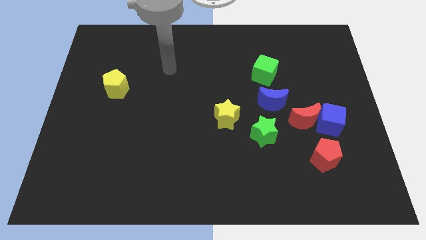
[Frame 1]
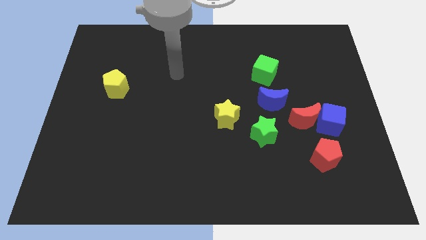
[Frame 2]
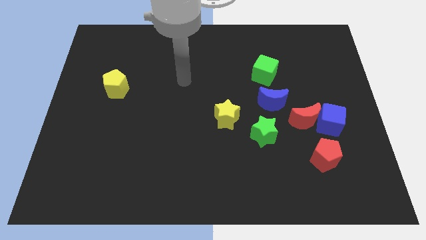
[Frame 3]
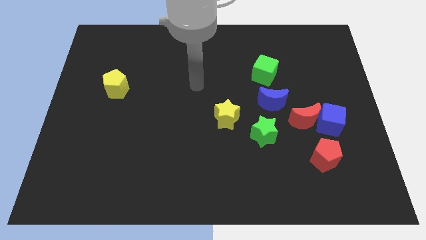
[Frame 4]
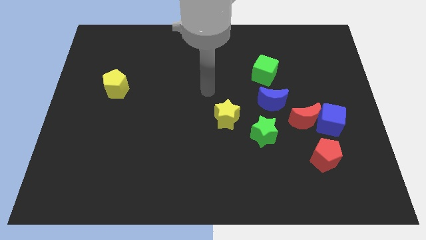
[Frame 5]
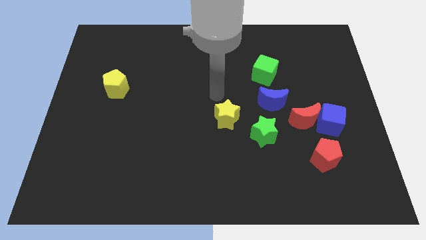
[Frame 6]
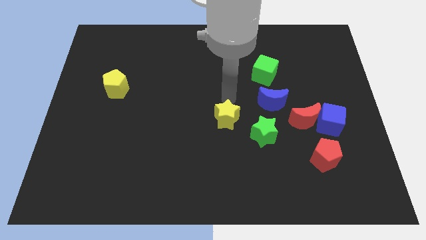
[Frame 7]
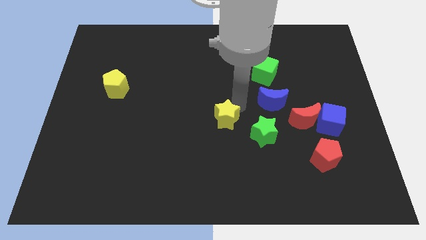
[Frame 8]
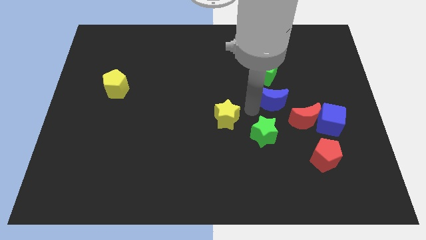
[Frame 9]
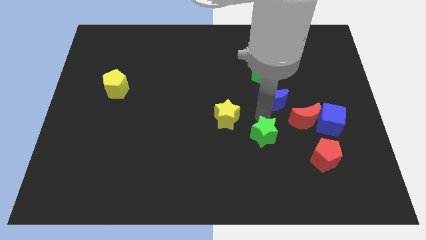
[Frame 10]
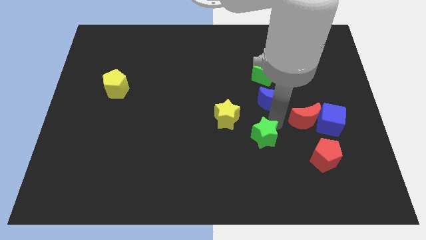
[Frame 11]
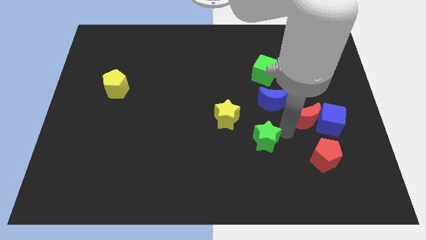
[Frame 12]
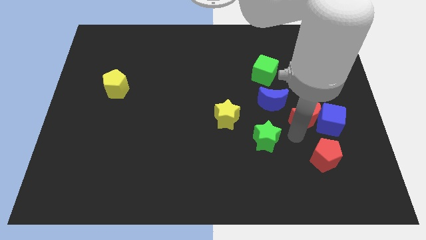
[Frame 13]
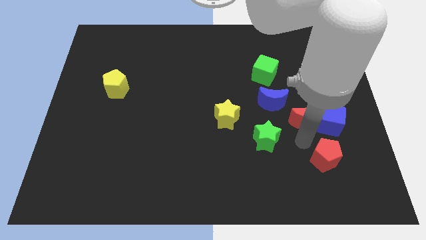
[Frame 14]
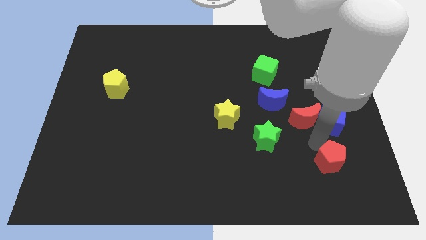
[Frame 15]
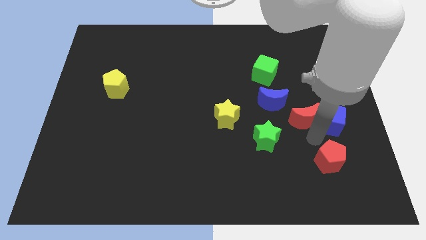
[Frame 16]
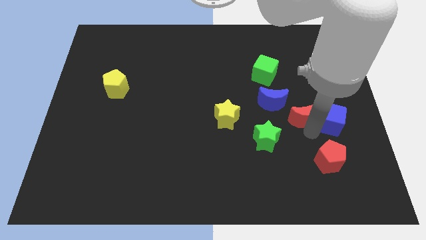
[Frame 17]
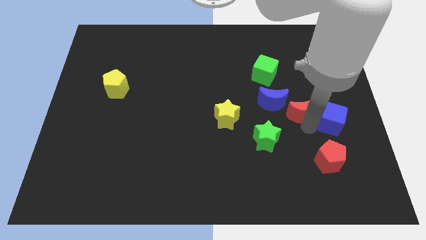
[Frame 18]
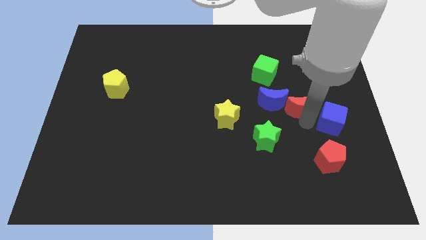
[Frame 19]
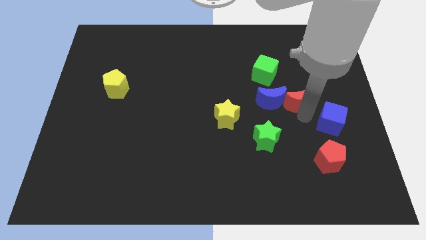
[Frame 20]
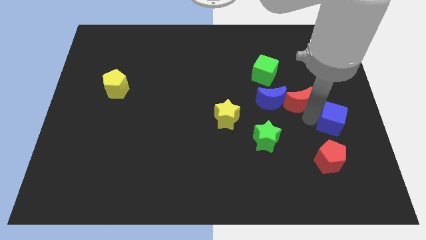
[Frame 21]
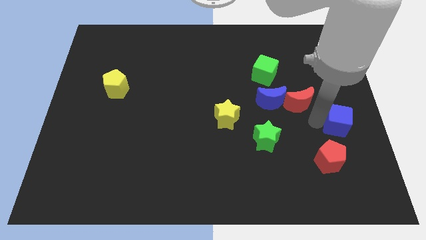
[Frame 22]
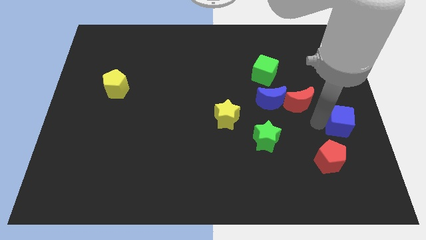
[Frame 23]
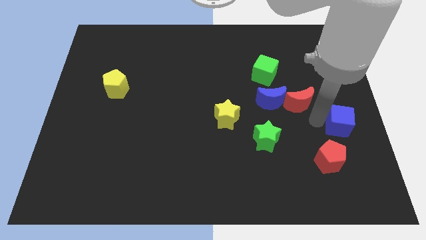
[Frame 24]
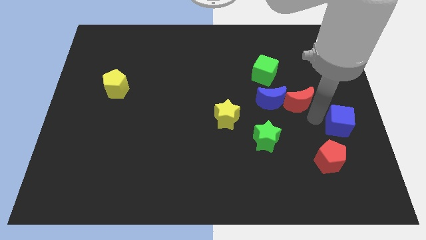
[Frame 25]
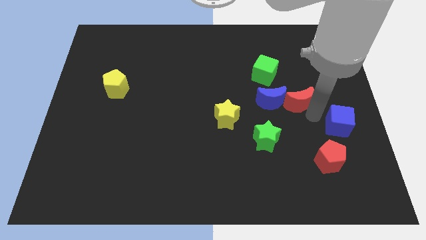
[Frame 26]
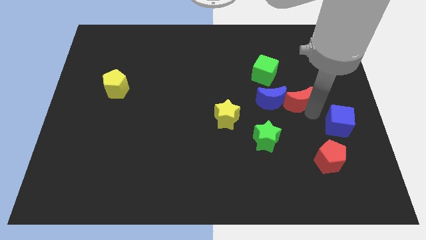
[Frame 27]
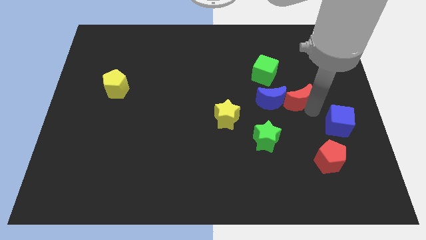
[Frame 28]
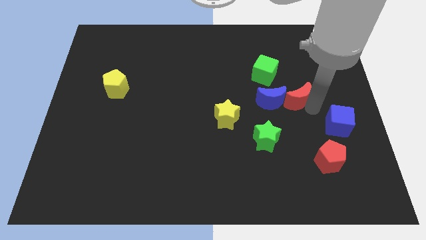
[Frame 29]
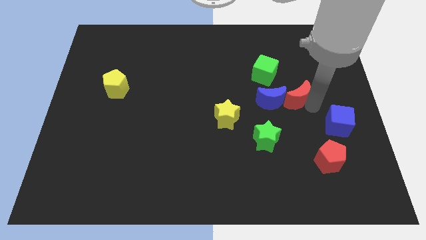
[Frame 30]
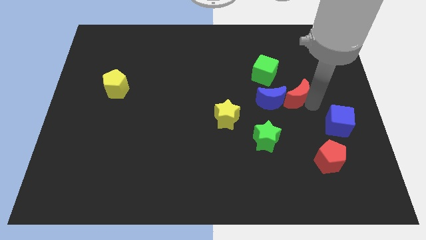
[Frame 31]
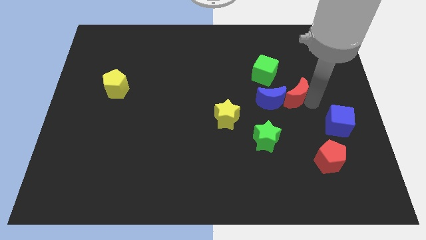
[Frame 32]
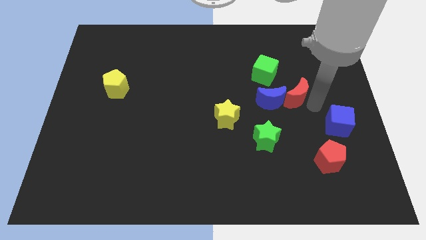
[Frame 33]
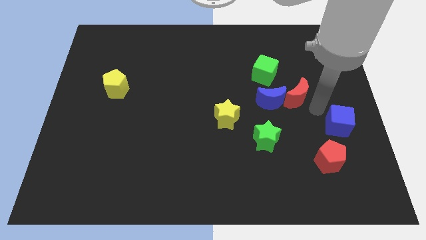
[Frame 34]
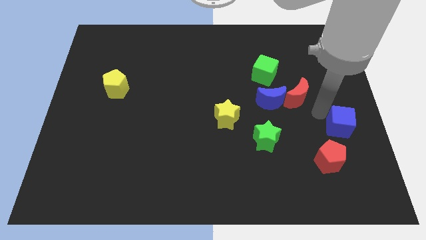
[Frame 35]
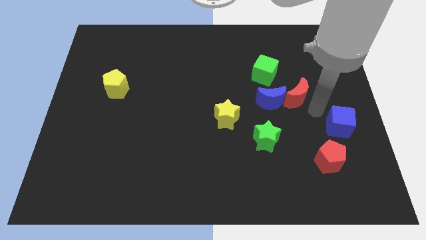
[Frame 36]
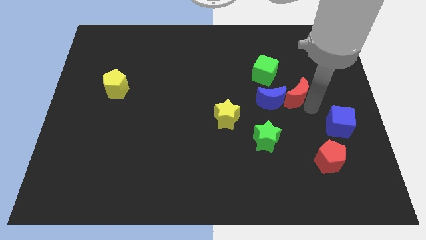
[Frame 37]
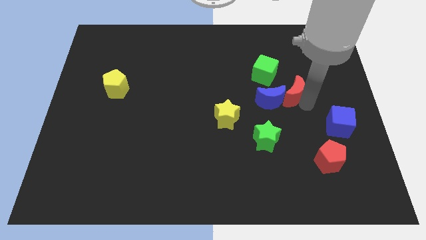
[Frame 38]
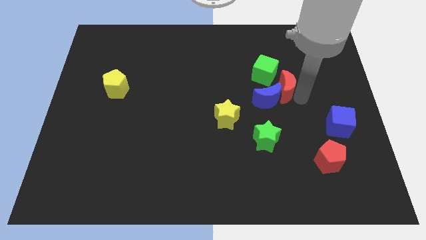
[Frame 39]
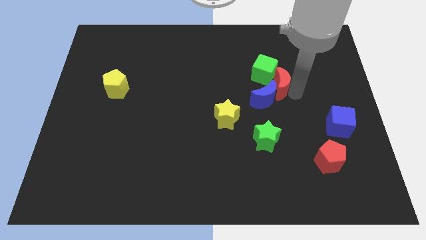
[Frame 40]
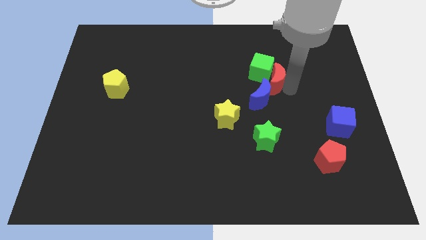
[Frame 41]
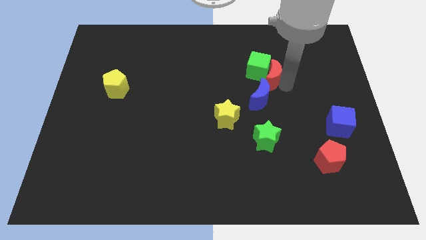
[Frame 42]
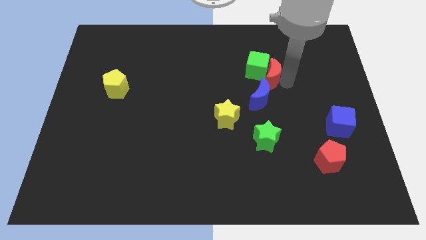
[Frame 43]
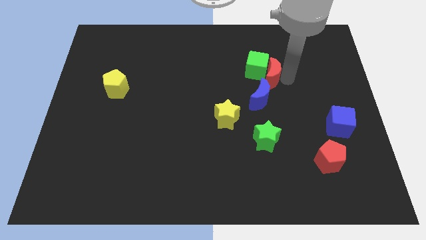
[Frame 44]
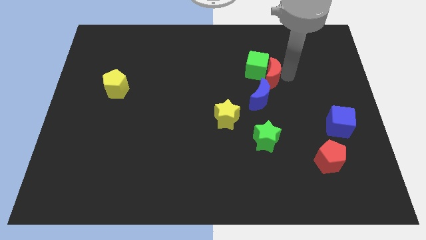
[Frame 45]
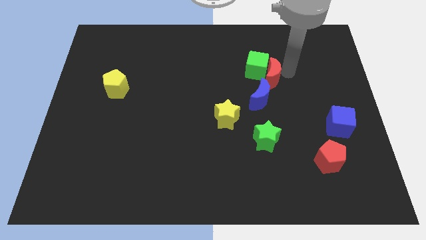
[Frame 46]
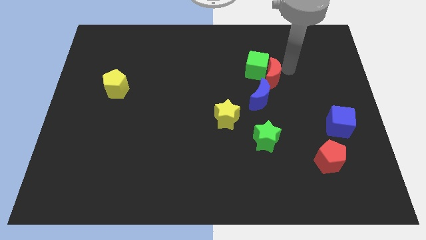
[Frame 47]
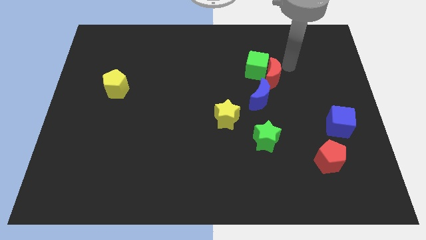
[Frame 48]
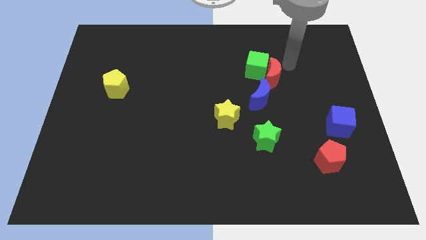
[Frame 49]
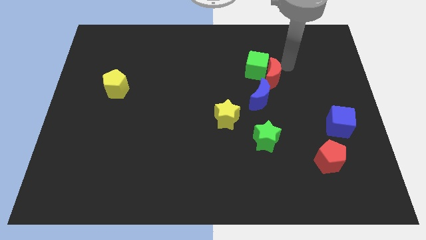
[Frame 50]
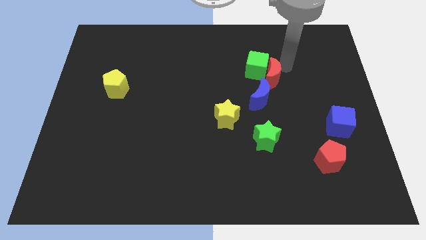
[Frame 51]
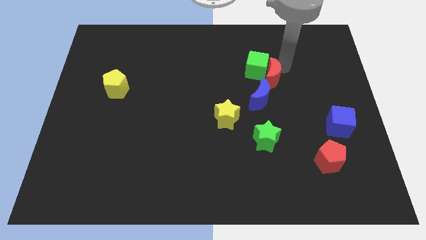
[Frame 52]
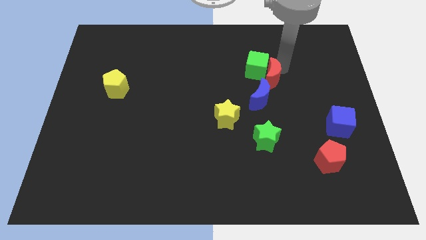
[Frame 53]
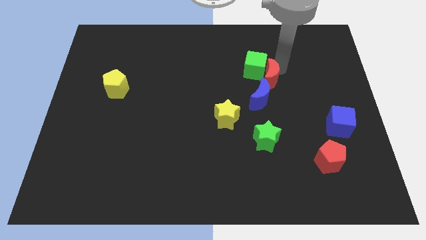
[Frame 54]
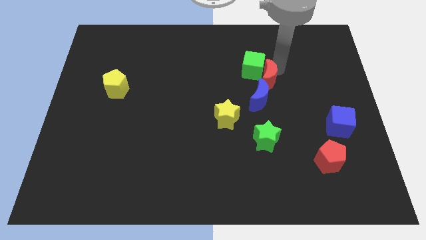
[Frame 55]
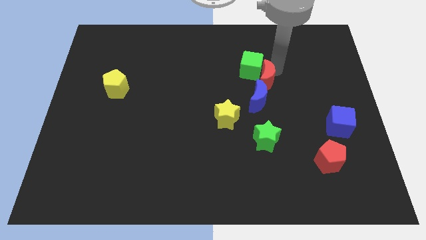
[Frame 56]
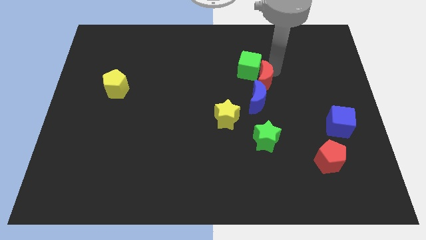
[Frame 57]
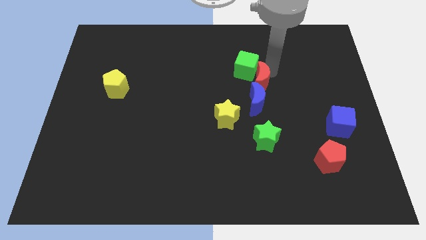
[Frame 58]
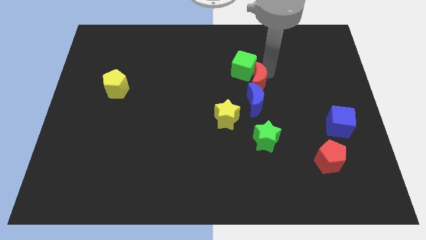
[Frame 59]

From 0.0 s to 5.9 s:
push the red moon to the middle

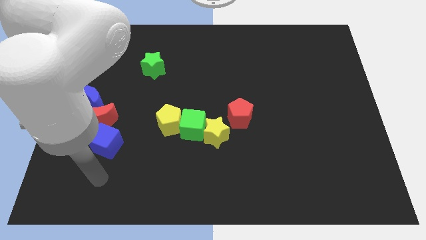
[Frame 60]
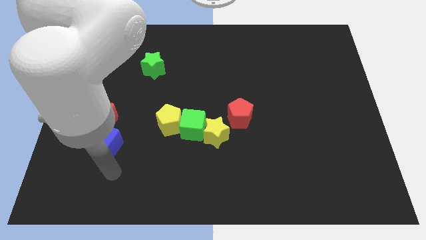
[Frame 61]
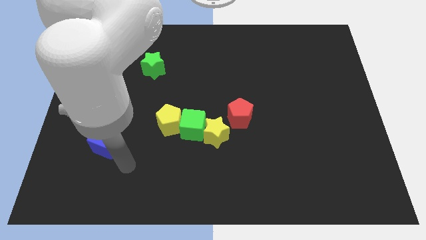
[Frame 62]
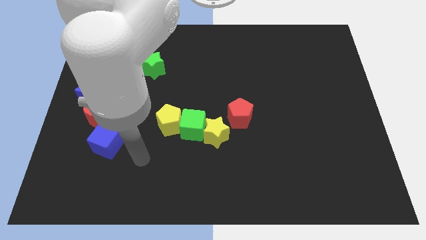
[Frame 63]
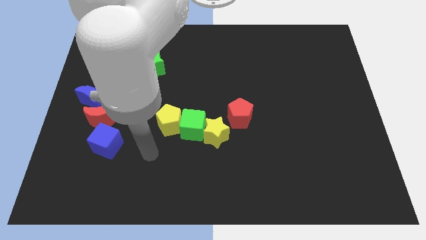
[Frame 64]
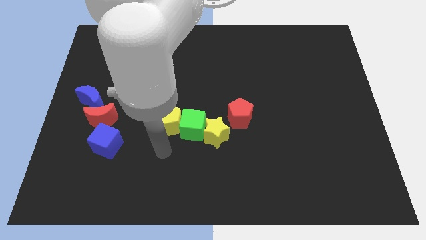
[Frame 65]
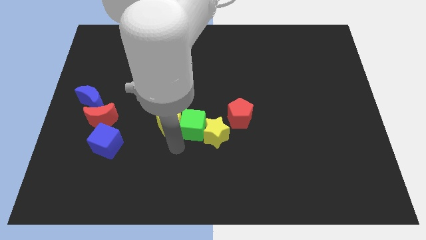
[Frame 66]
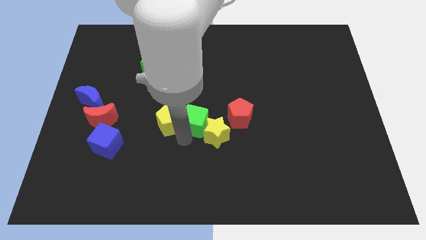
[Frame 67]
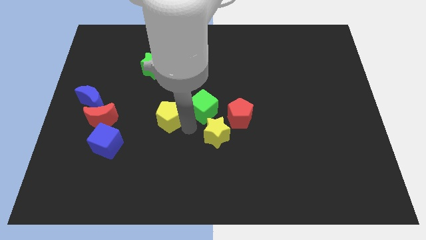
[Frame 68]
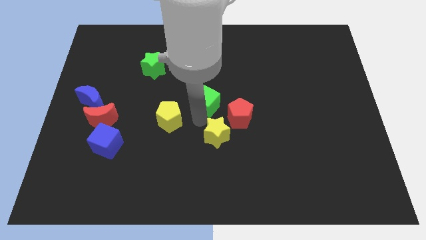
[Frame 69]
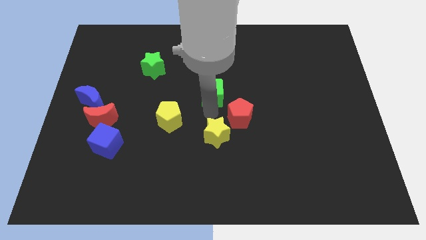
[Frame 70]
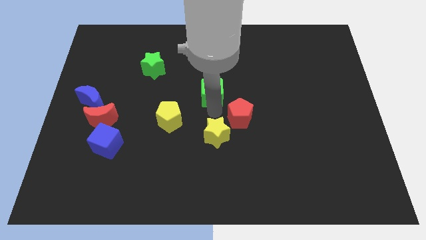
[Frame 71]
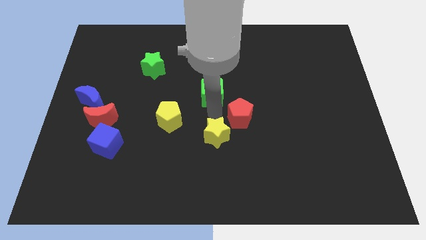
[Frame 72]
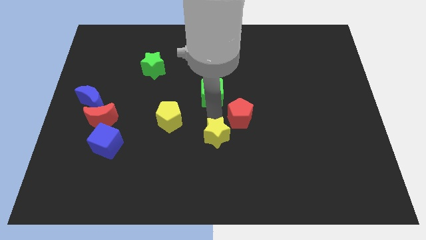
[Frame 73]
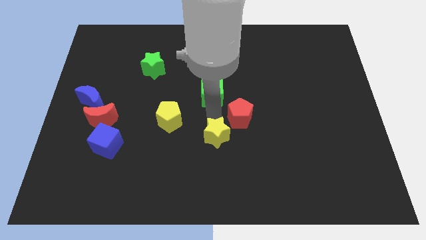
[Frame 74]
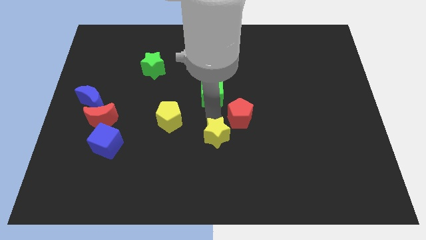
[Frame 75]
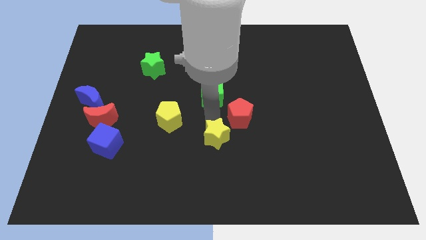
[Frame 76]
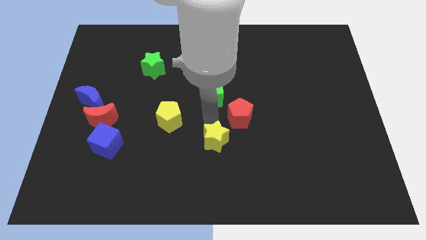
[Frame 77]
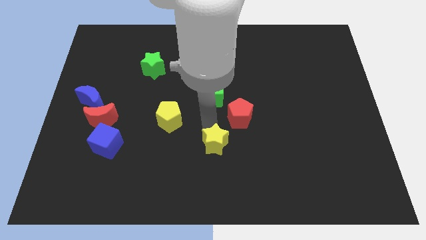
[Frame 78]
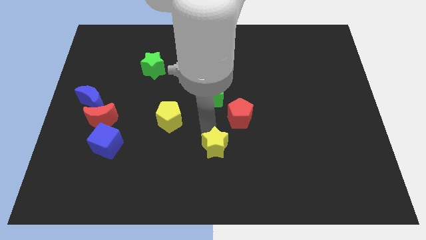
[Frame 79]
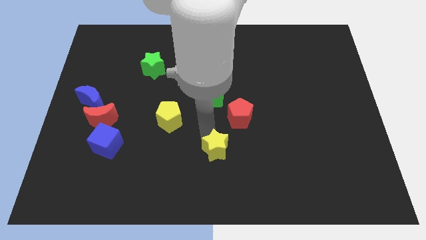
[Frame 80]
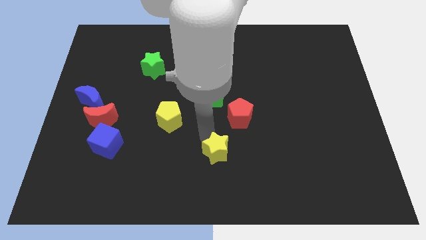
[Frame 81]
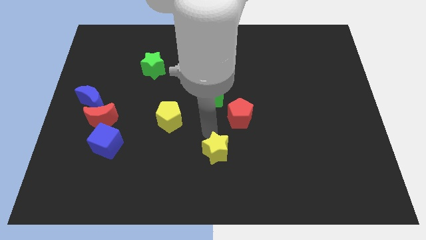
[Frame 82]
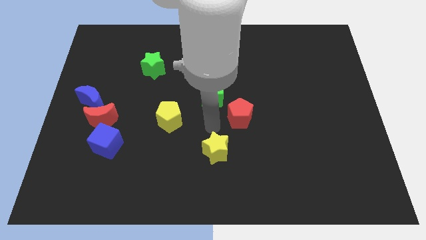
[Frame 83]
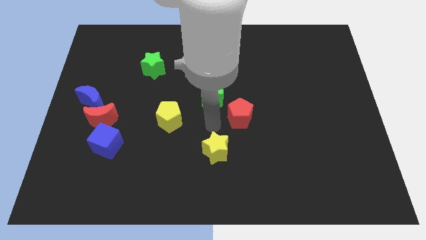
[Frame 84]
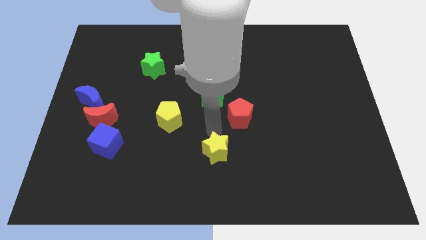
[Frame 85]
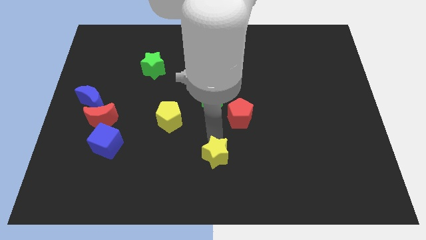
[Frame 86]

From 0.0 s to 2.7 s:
push the yellow star to the bottom
